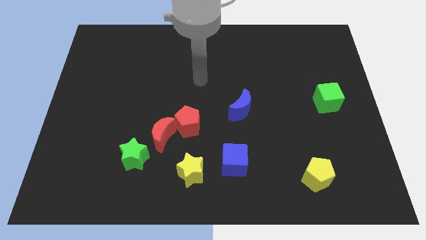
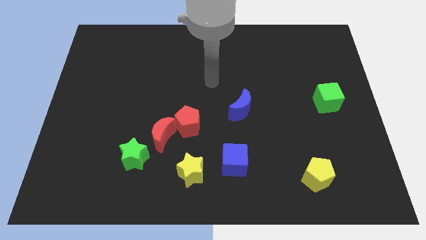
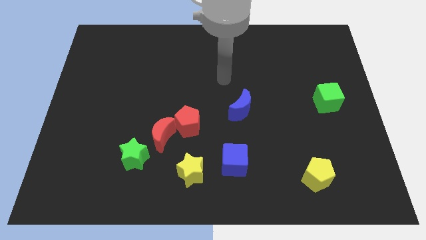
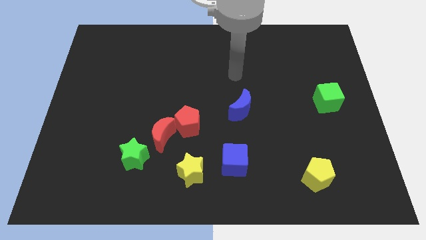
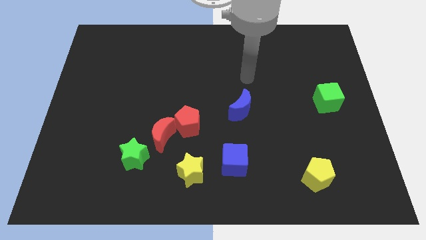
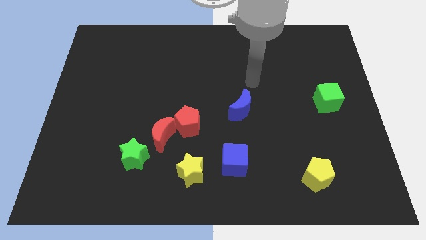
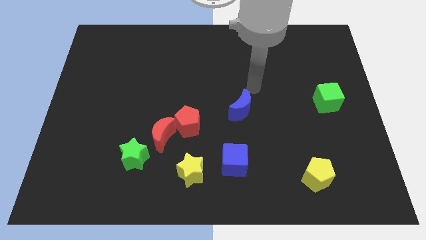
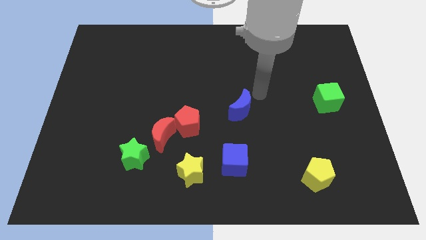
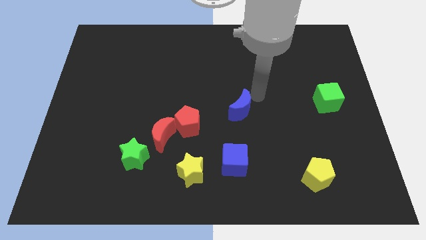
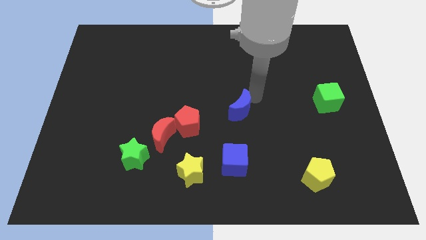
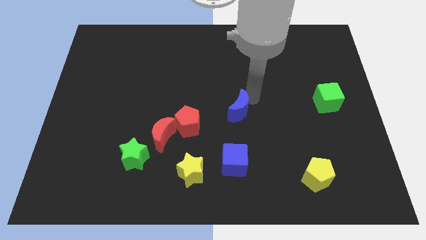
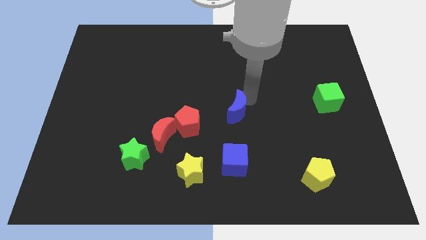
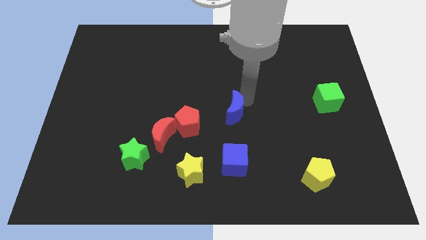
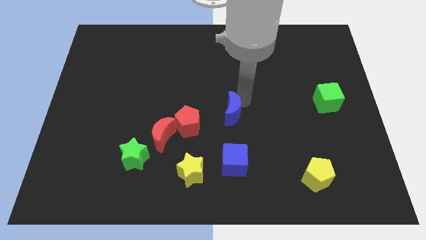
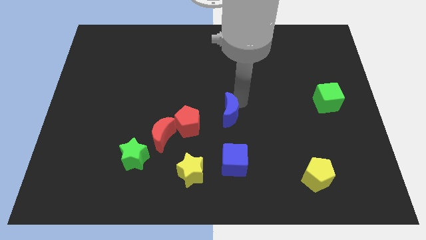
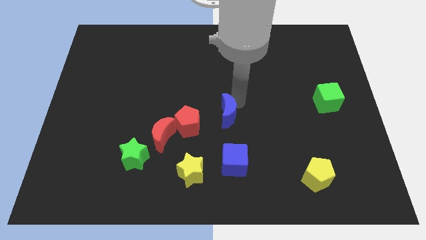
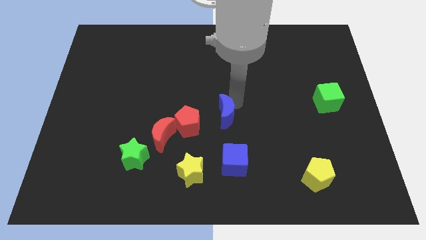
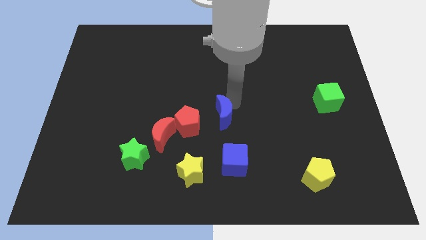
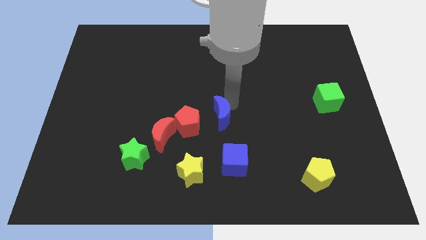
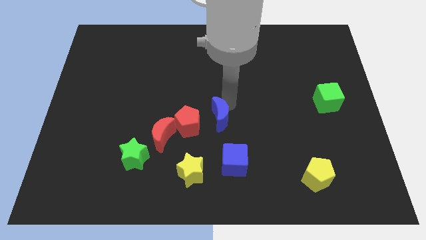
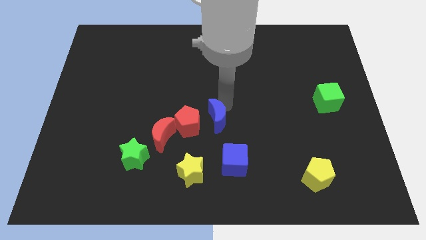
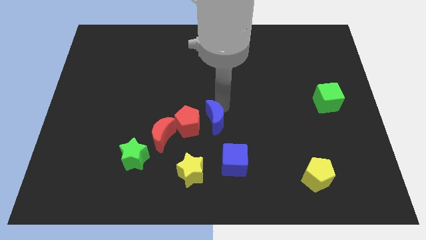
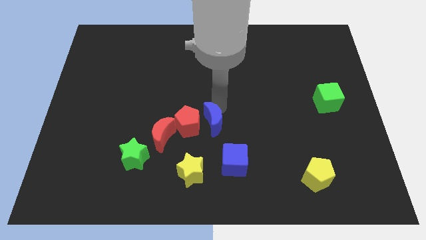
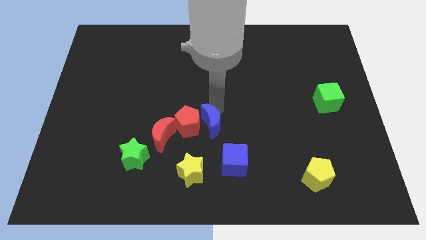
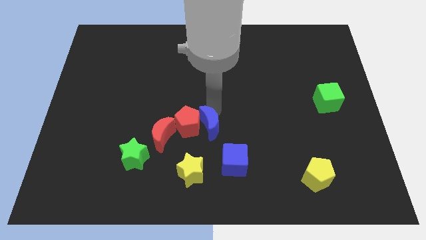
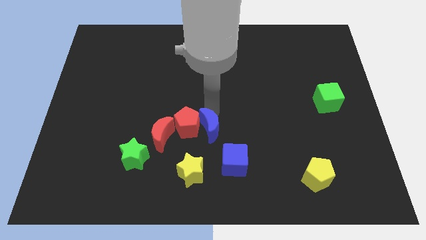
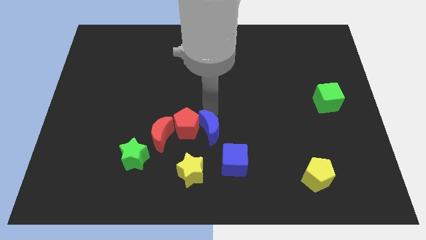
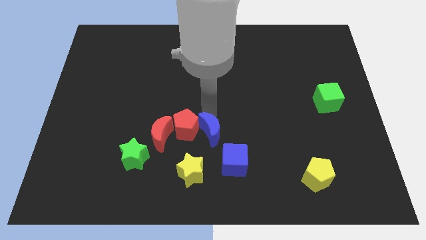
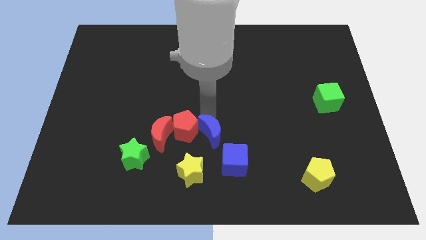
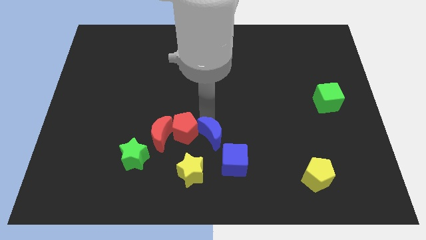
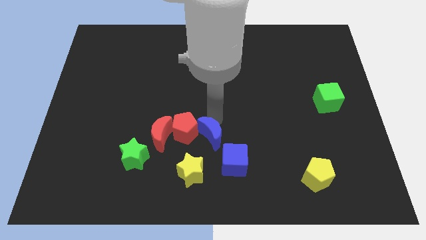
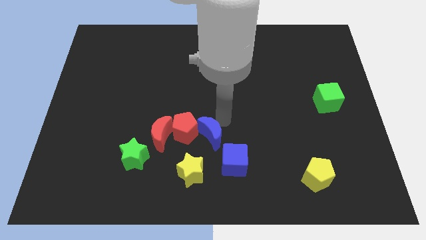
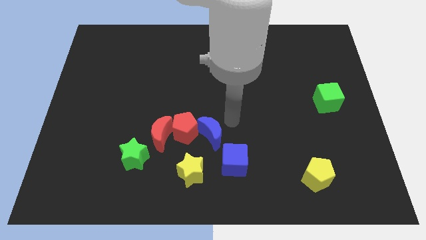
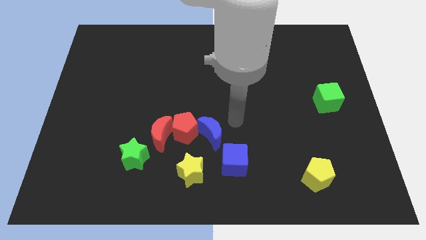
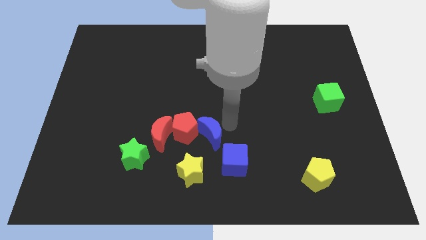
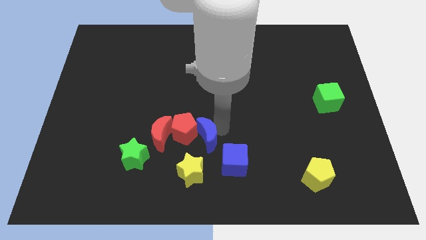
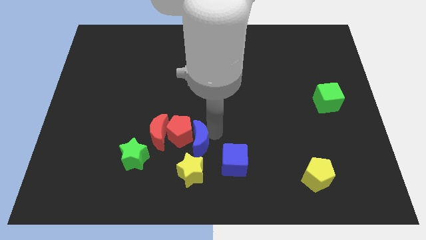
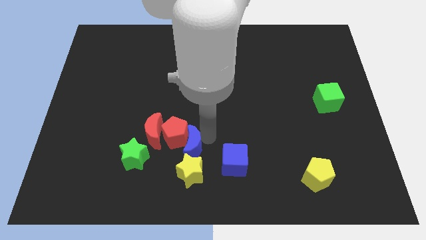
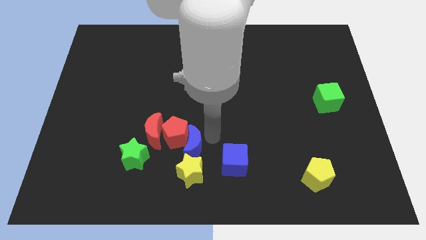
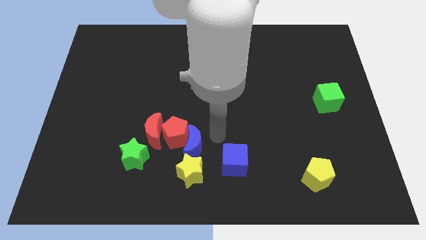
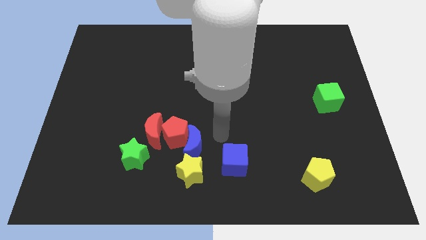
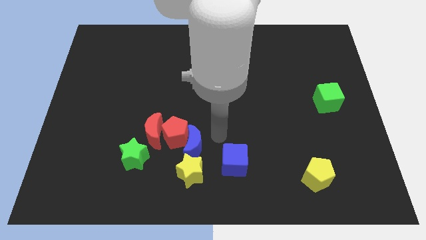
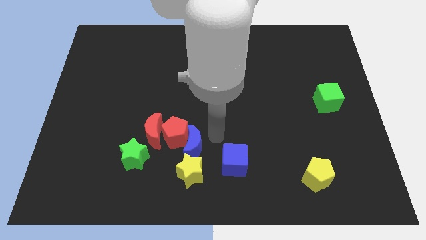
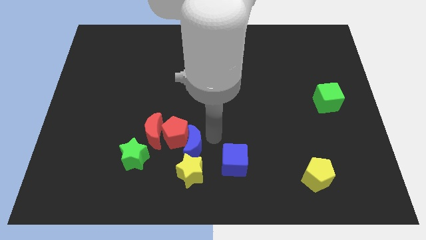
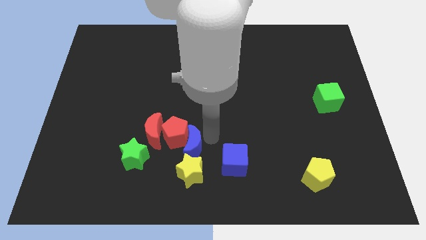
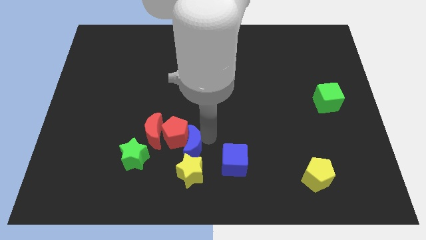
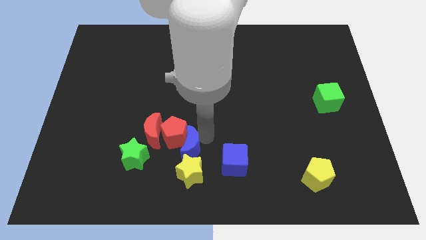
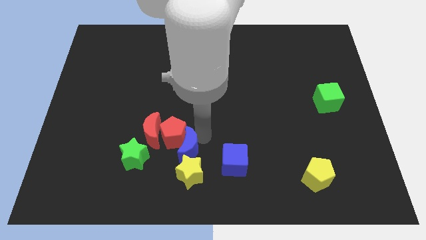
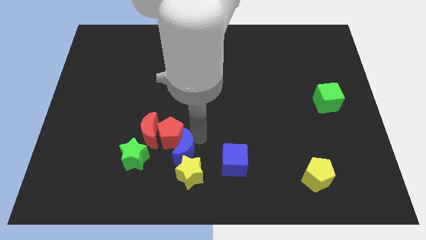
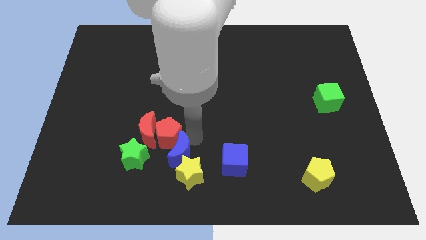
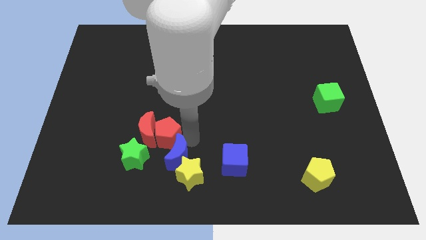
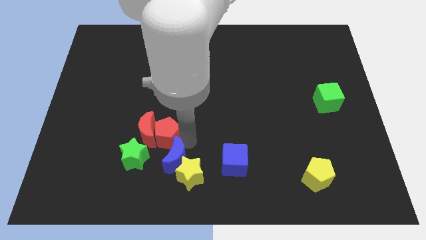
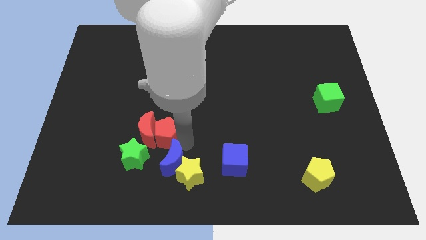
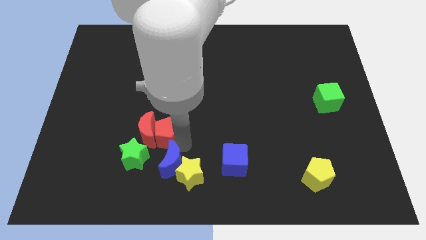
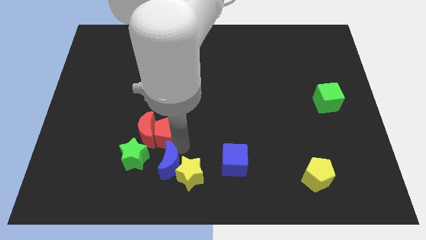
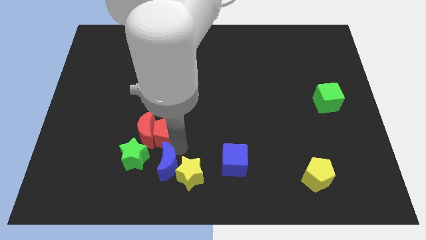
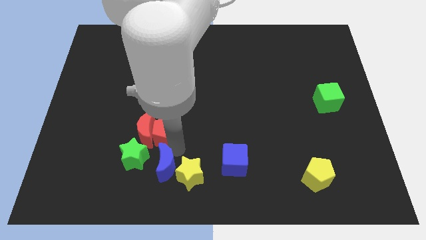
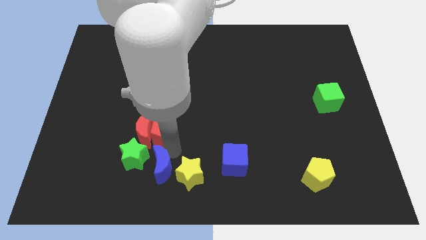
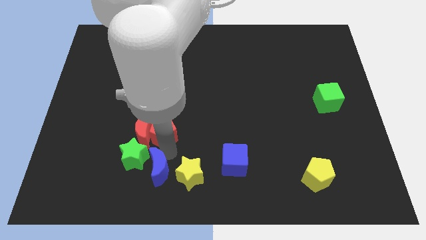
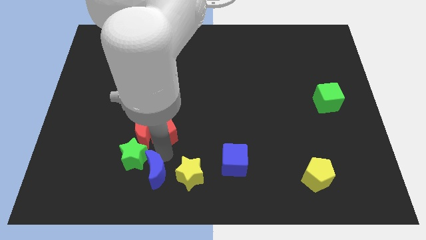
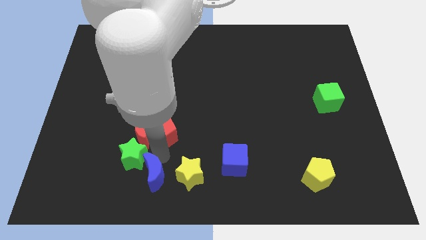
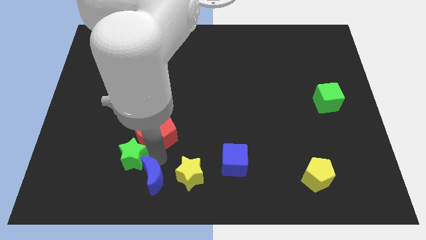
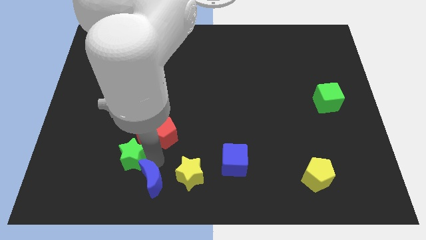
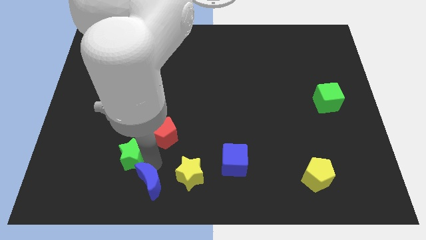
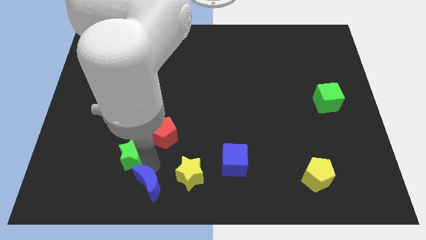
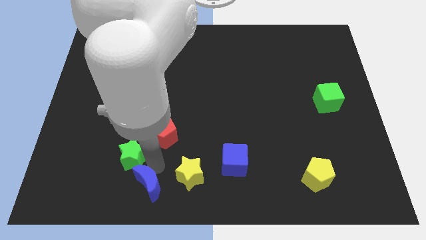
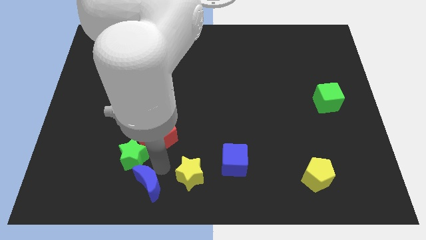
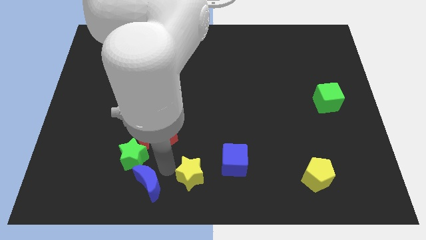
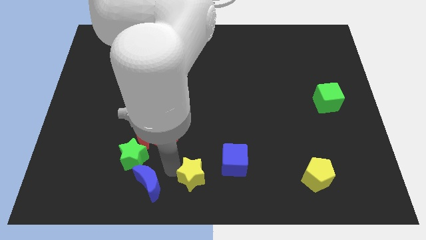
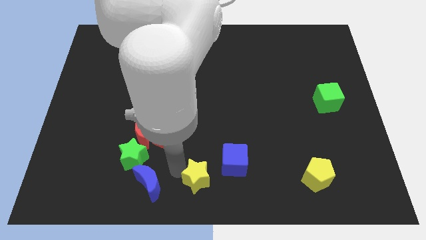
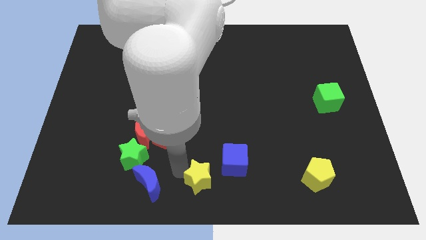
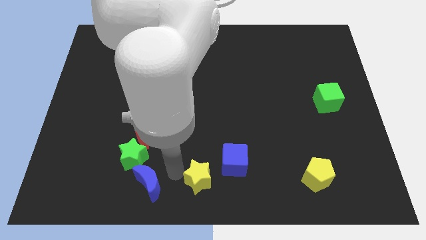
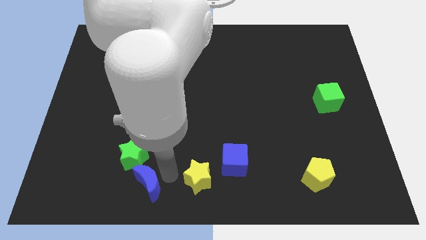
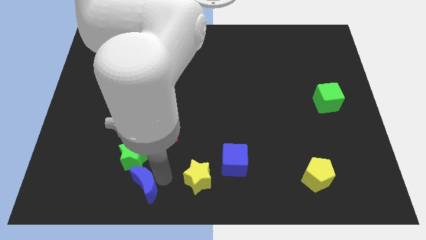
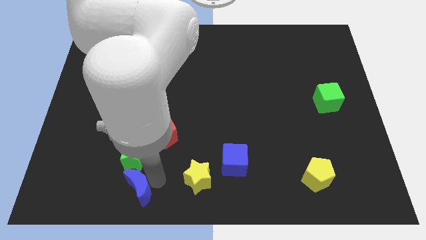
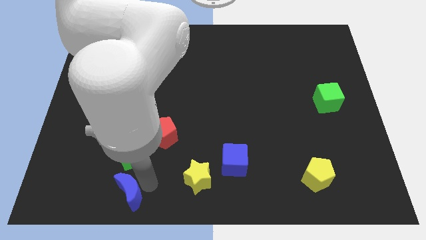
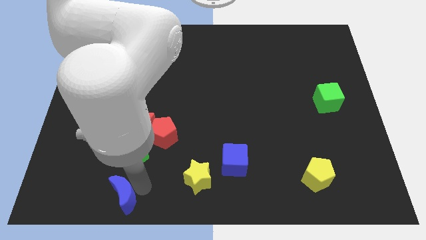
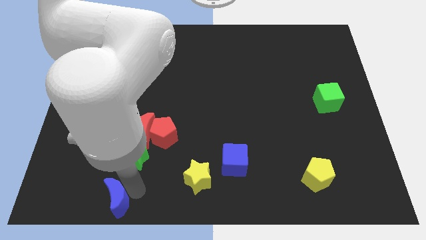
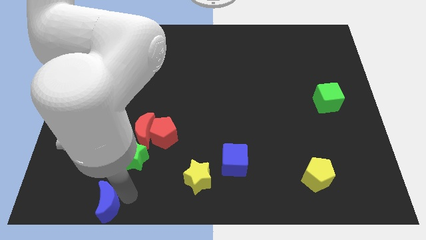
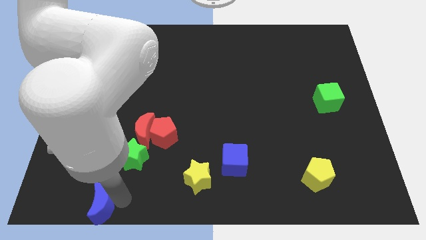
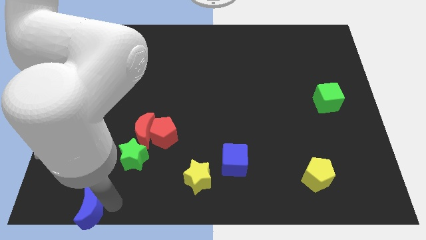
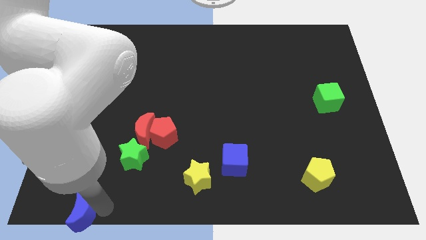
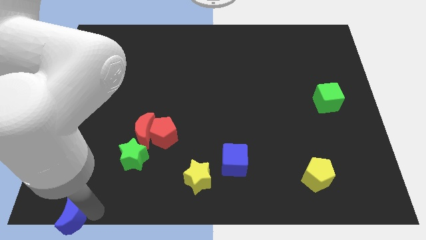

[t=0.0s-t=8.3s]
push the blue moon to the bottom left corner
